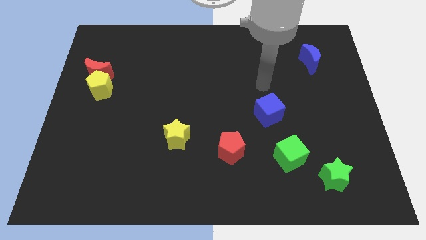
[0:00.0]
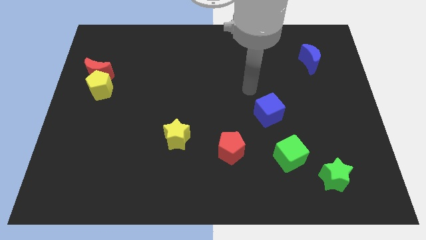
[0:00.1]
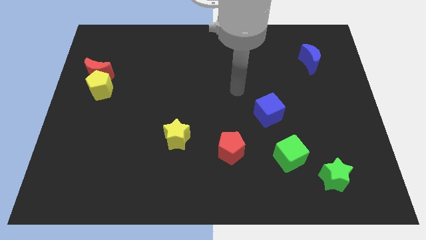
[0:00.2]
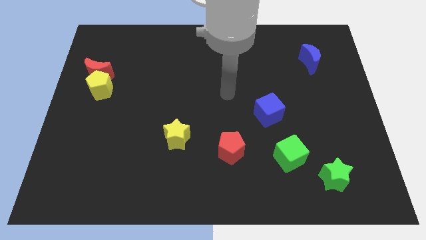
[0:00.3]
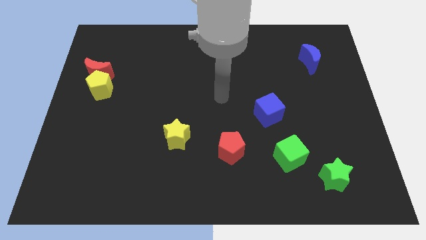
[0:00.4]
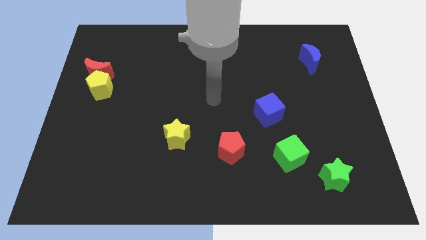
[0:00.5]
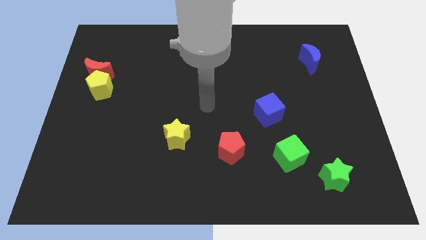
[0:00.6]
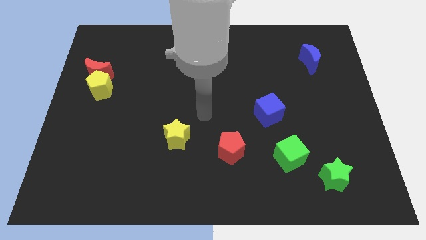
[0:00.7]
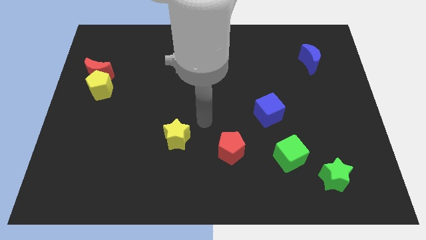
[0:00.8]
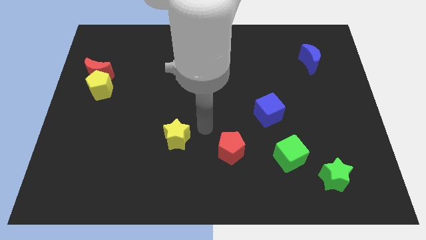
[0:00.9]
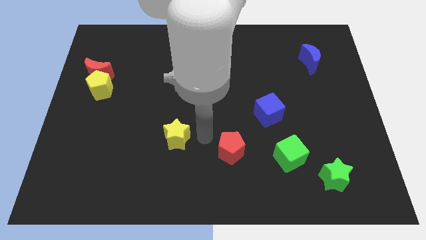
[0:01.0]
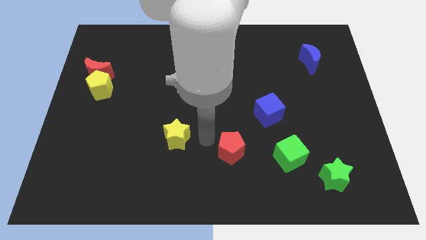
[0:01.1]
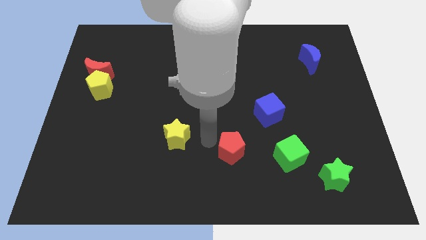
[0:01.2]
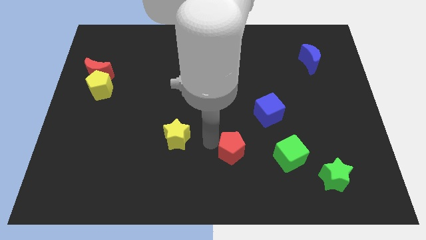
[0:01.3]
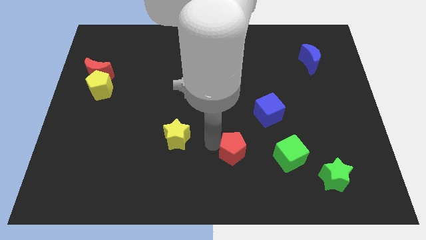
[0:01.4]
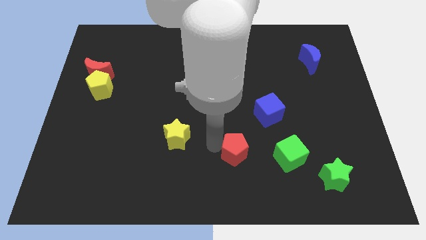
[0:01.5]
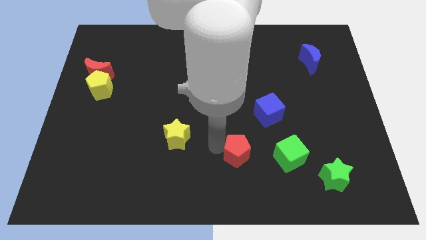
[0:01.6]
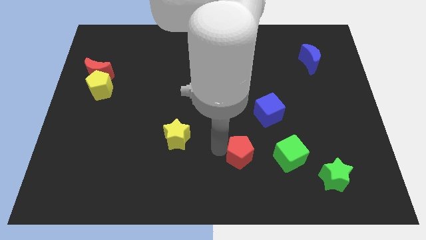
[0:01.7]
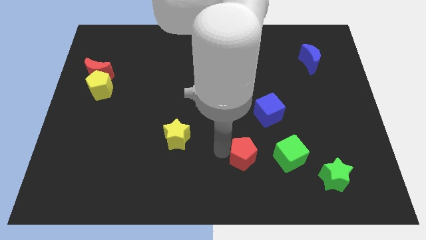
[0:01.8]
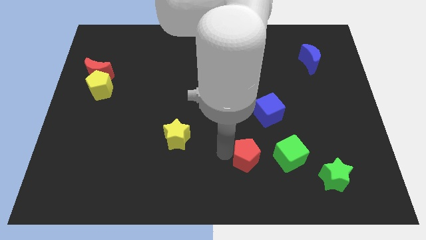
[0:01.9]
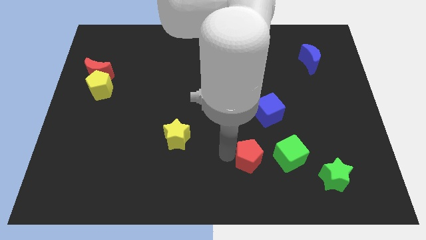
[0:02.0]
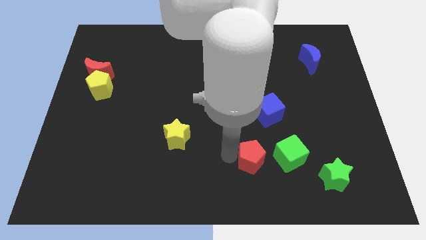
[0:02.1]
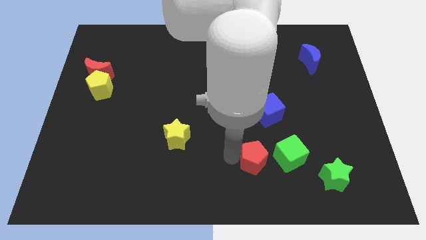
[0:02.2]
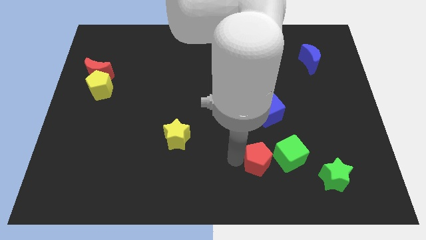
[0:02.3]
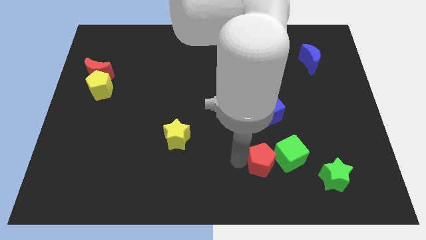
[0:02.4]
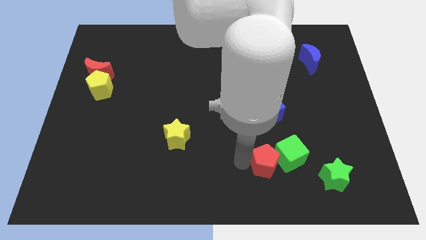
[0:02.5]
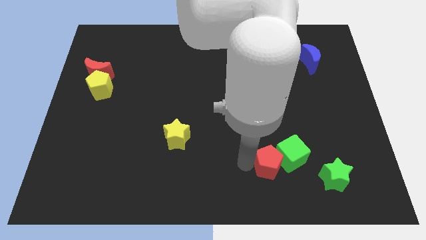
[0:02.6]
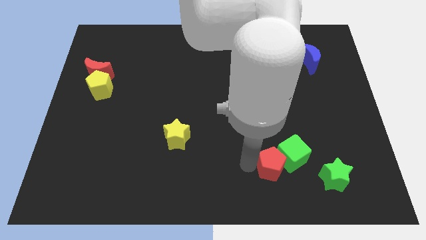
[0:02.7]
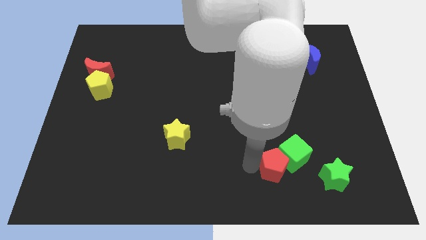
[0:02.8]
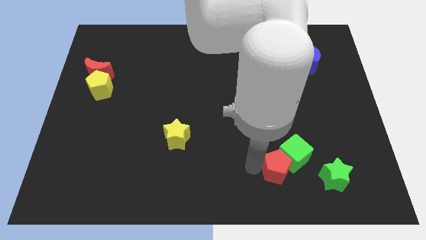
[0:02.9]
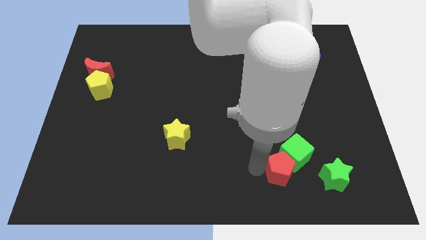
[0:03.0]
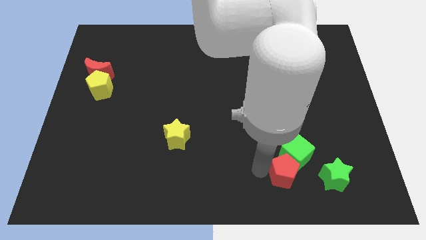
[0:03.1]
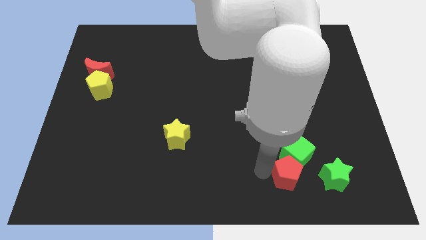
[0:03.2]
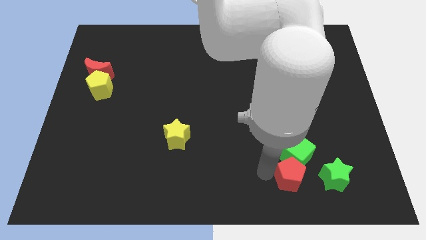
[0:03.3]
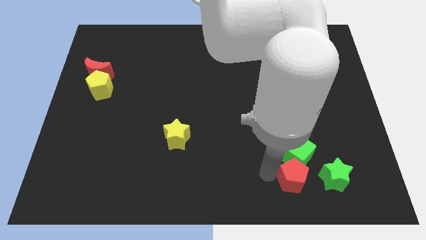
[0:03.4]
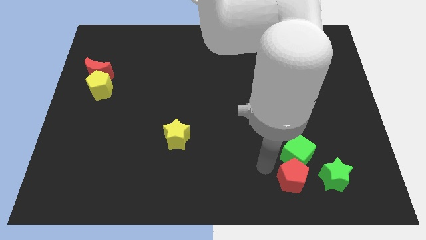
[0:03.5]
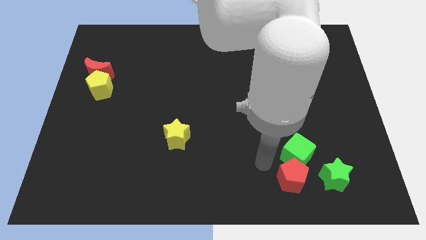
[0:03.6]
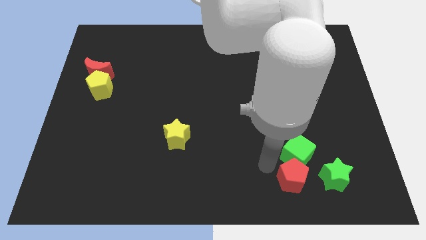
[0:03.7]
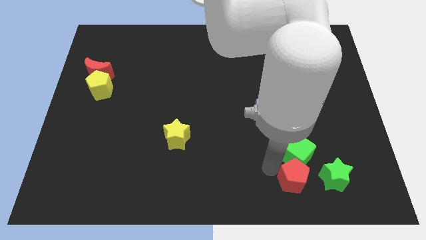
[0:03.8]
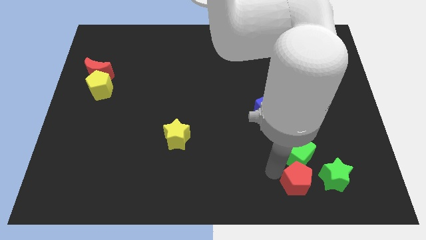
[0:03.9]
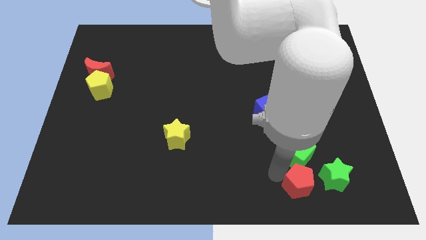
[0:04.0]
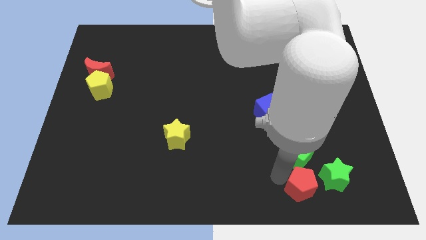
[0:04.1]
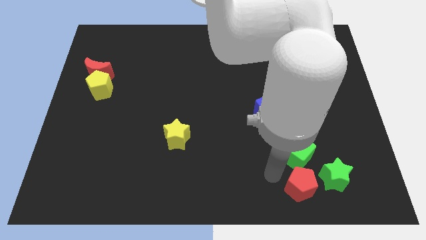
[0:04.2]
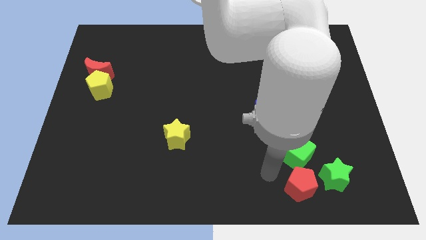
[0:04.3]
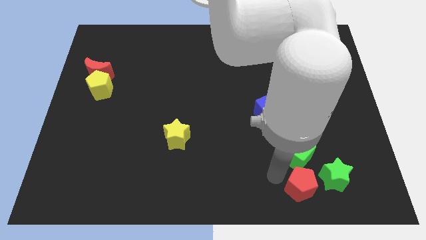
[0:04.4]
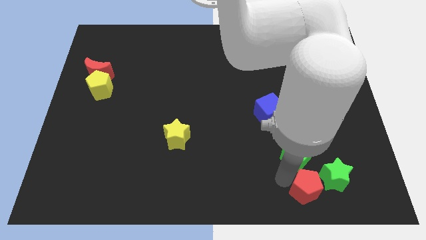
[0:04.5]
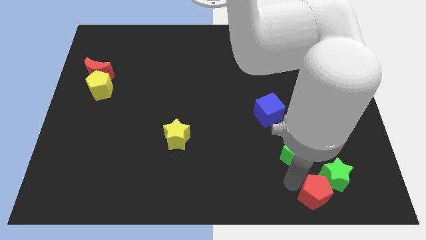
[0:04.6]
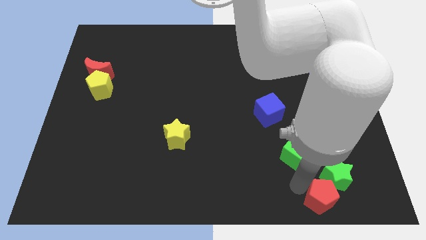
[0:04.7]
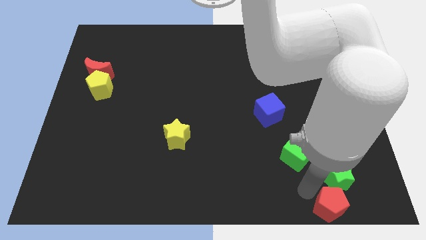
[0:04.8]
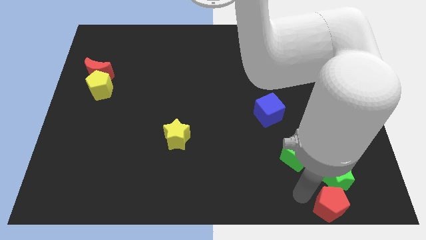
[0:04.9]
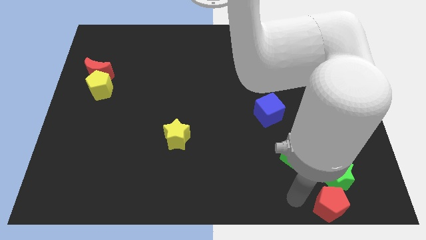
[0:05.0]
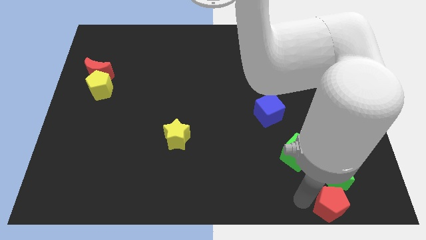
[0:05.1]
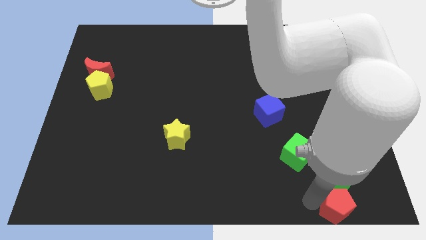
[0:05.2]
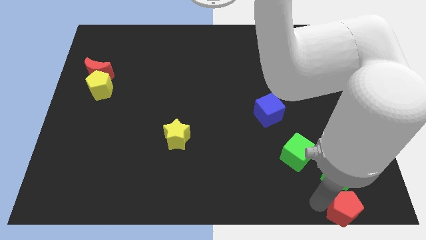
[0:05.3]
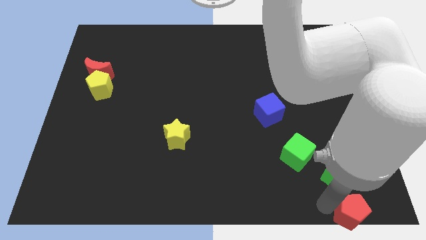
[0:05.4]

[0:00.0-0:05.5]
slide the red pentagon to the lower right corner

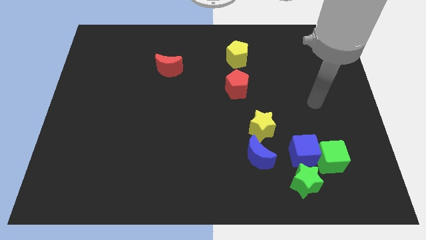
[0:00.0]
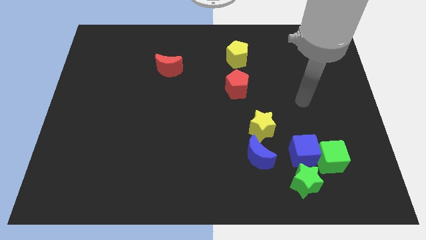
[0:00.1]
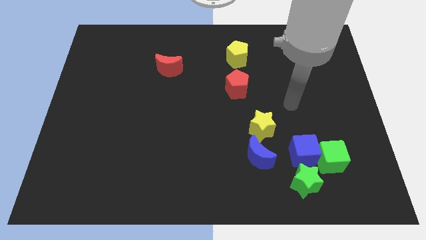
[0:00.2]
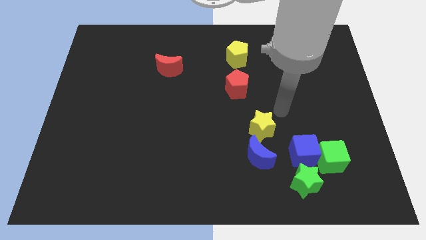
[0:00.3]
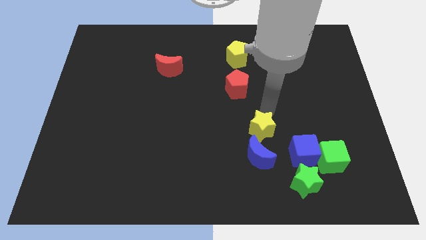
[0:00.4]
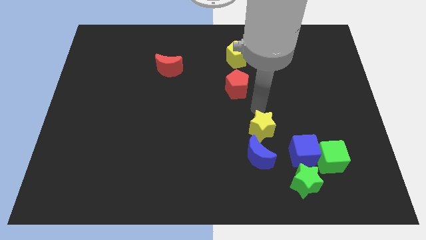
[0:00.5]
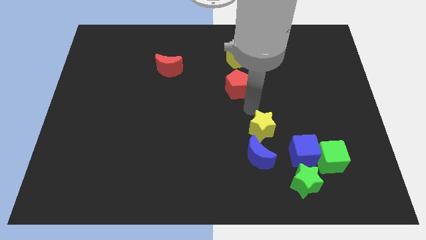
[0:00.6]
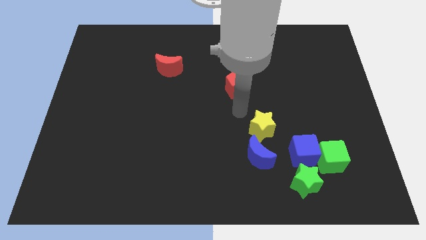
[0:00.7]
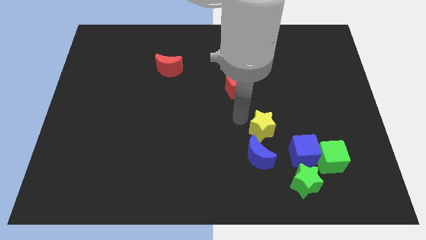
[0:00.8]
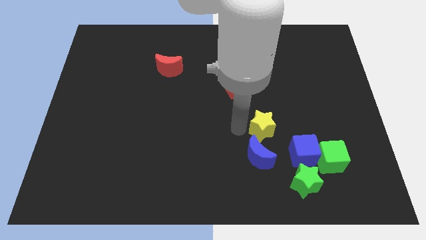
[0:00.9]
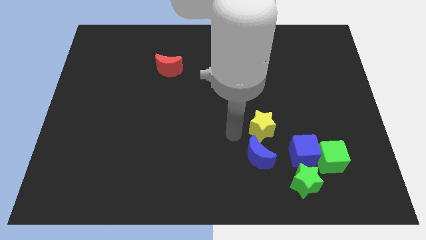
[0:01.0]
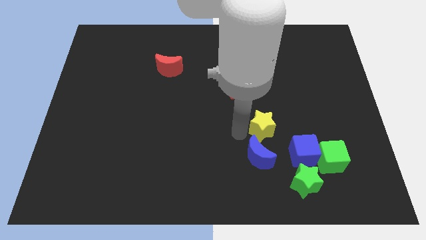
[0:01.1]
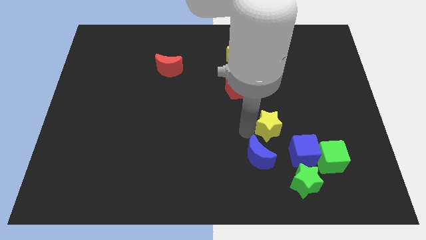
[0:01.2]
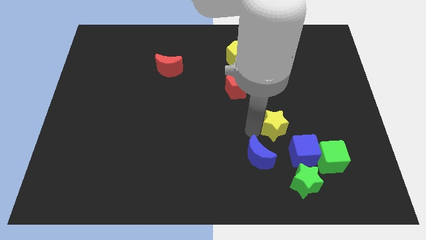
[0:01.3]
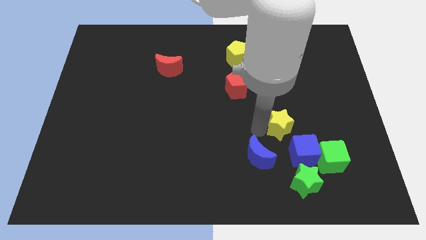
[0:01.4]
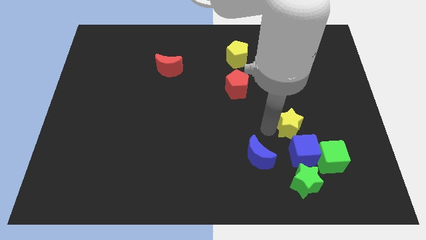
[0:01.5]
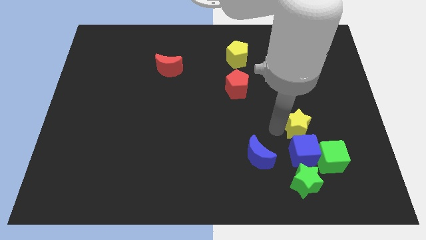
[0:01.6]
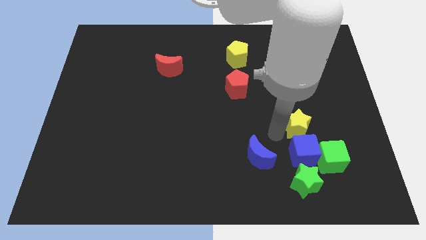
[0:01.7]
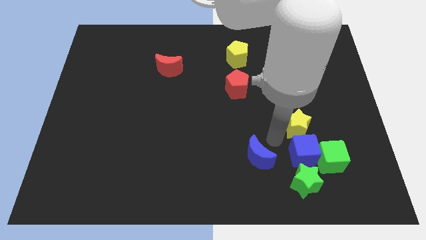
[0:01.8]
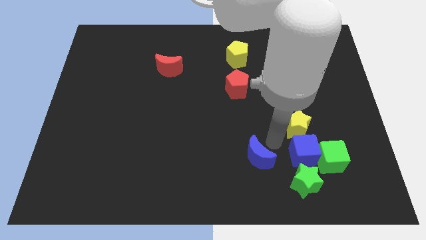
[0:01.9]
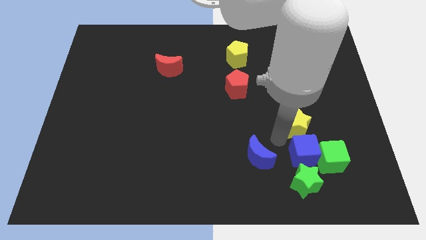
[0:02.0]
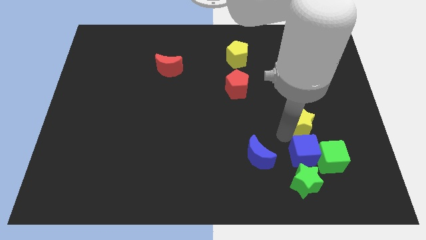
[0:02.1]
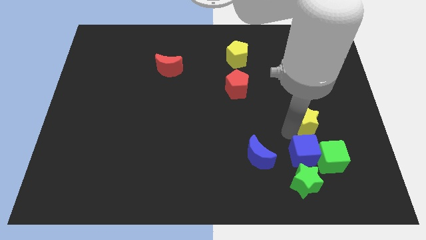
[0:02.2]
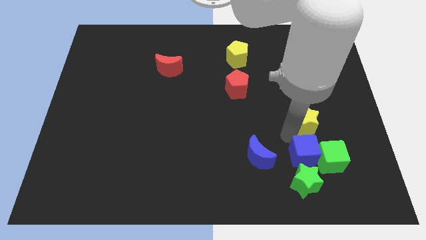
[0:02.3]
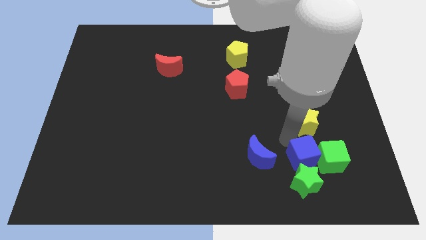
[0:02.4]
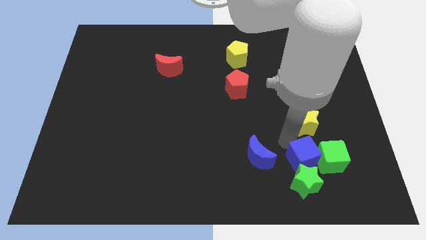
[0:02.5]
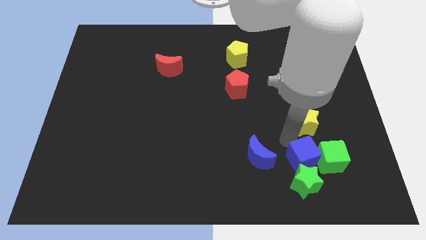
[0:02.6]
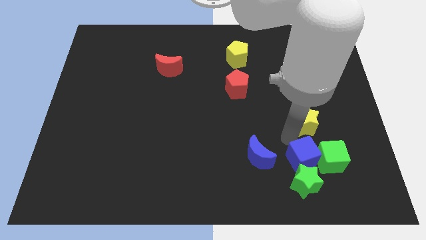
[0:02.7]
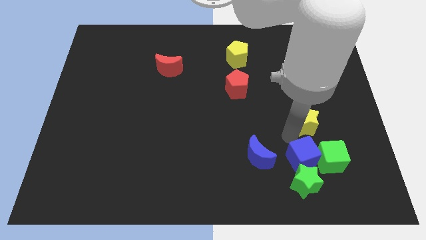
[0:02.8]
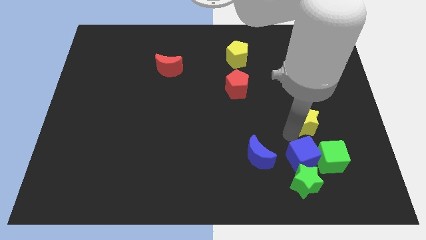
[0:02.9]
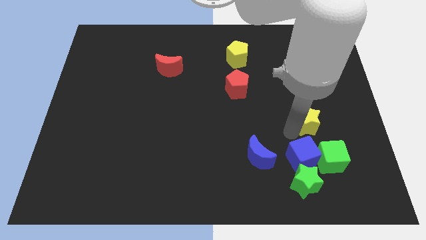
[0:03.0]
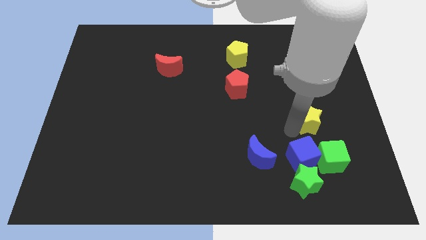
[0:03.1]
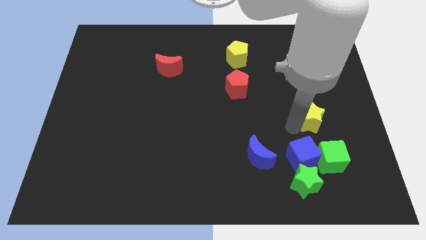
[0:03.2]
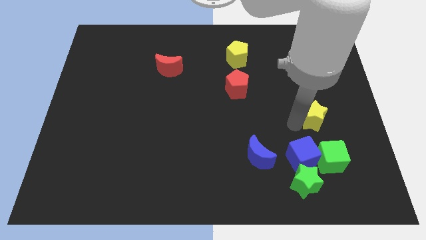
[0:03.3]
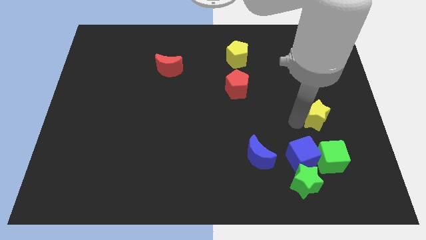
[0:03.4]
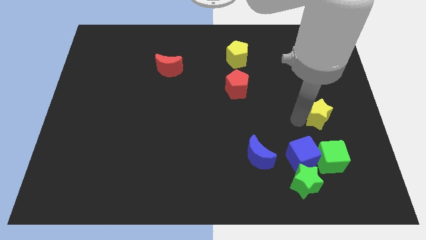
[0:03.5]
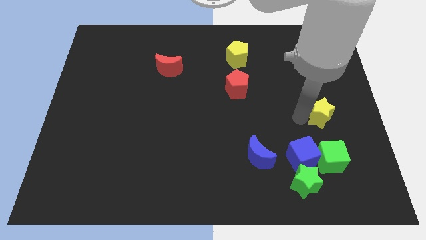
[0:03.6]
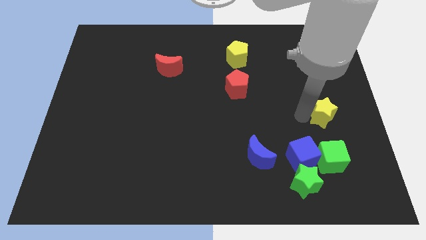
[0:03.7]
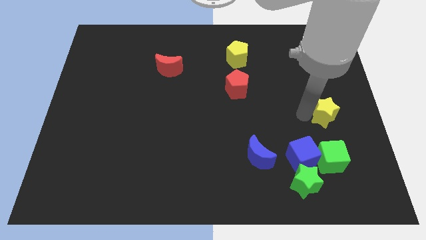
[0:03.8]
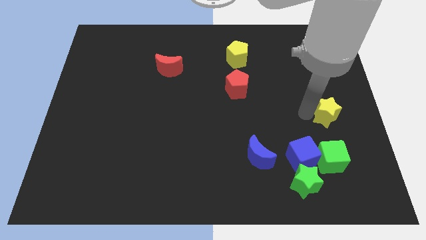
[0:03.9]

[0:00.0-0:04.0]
move the yellow star to the center right
